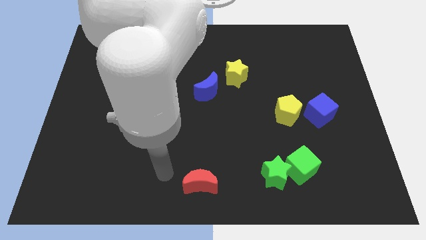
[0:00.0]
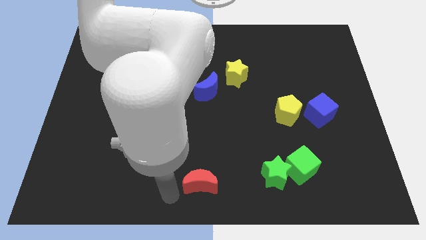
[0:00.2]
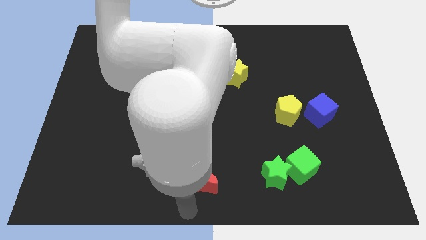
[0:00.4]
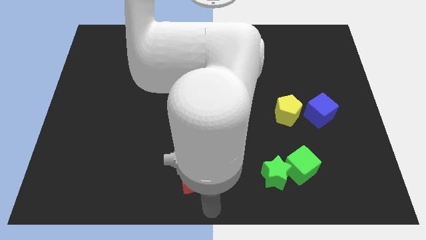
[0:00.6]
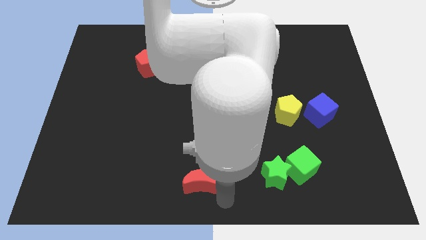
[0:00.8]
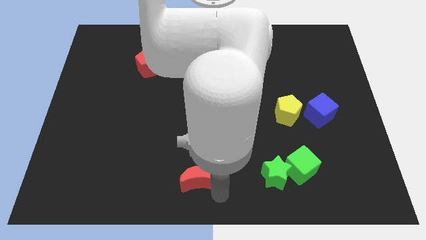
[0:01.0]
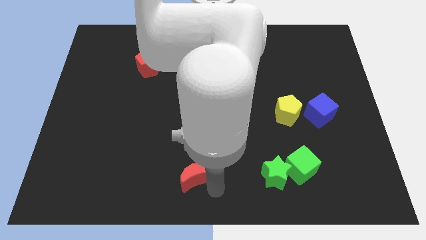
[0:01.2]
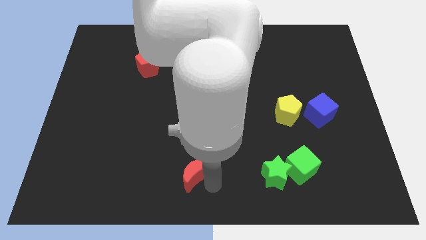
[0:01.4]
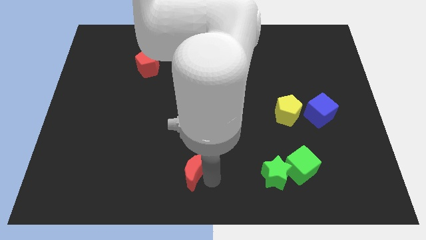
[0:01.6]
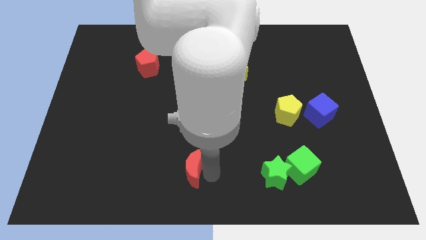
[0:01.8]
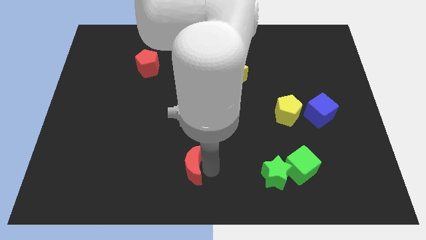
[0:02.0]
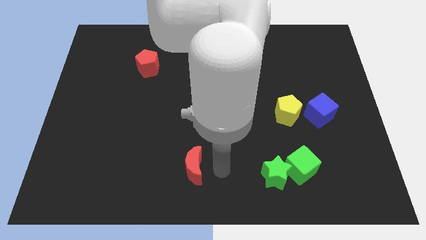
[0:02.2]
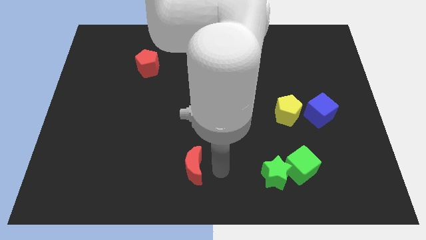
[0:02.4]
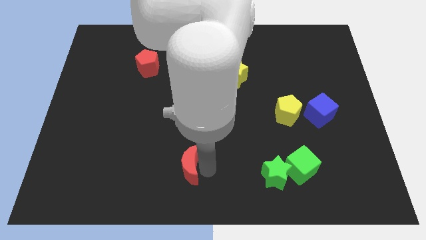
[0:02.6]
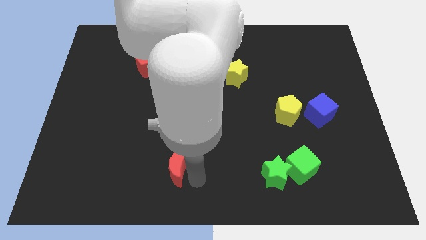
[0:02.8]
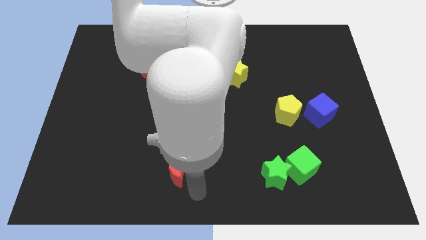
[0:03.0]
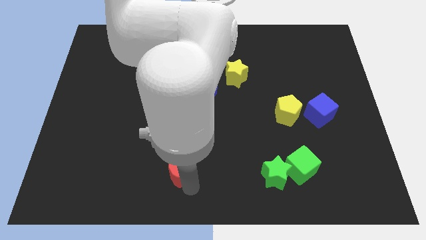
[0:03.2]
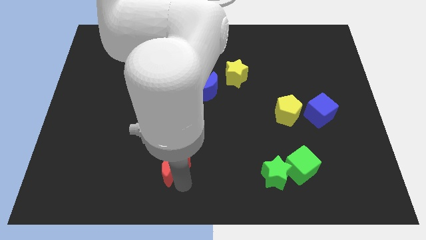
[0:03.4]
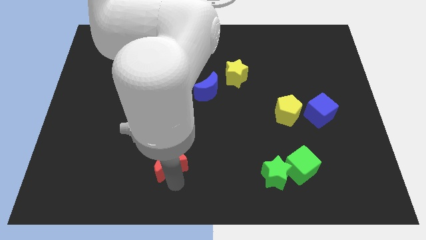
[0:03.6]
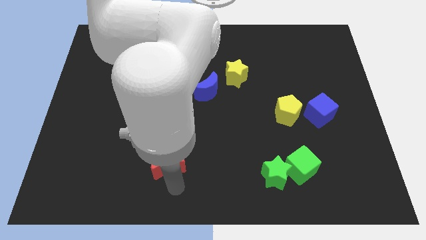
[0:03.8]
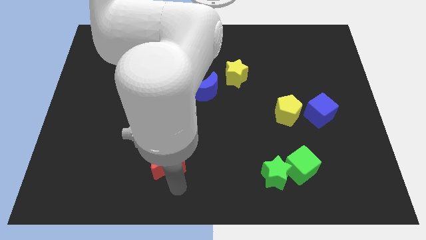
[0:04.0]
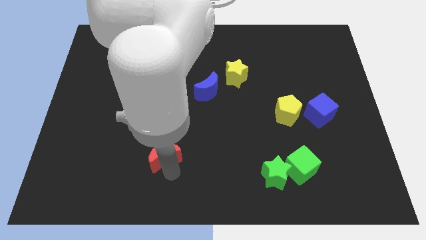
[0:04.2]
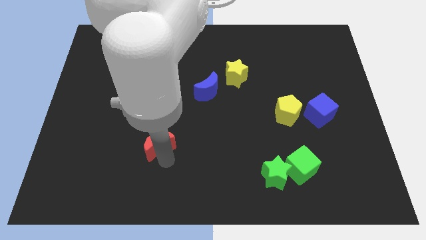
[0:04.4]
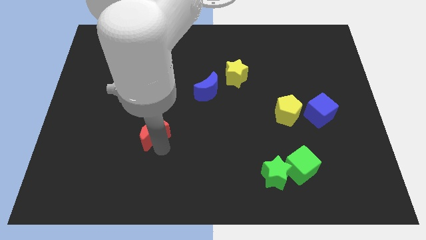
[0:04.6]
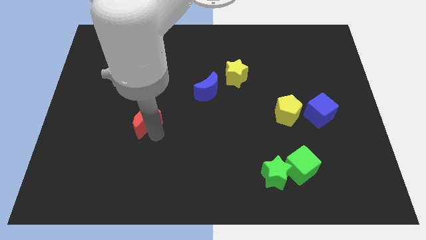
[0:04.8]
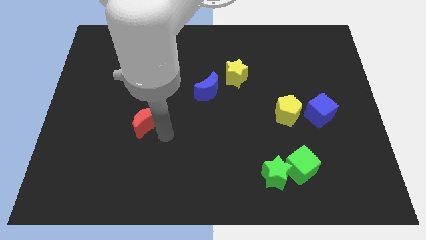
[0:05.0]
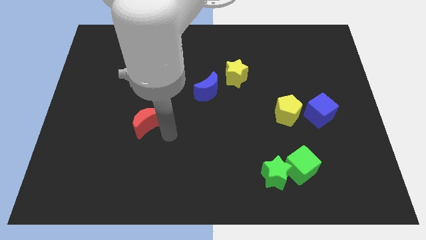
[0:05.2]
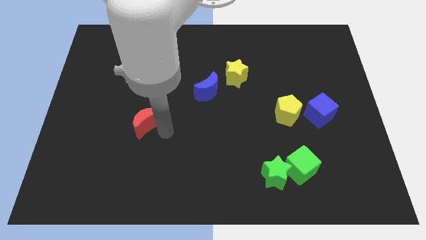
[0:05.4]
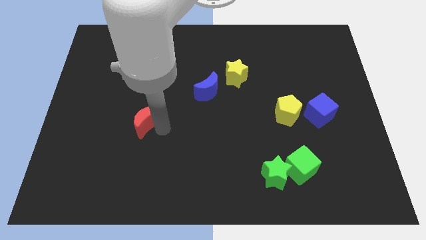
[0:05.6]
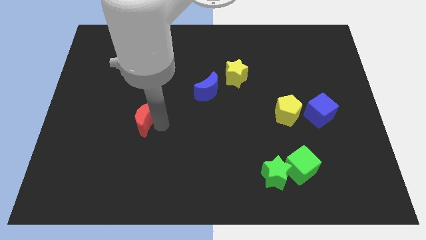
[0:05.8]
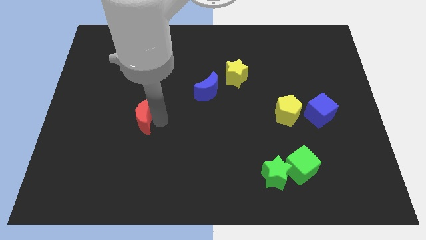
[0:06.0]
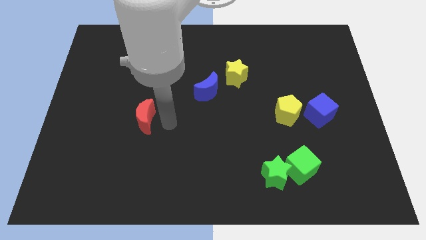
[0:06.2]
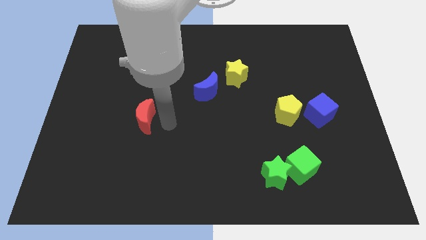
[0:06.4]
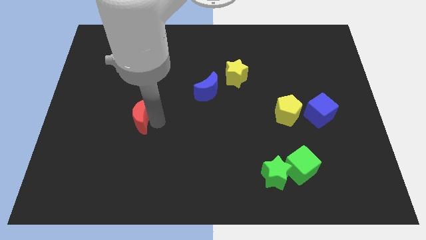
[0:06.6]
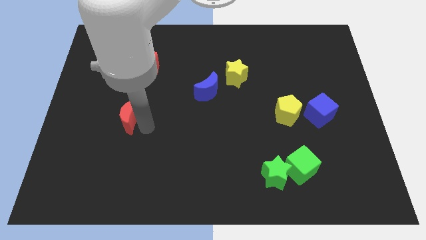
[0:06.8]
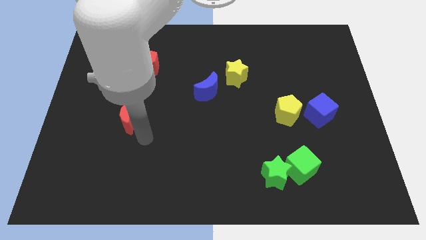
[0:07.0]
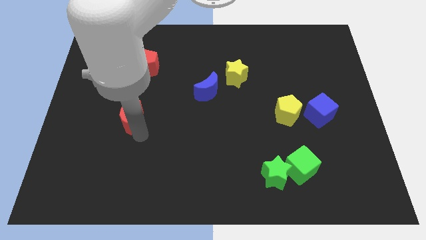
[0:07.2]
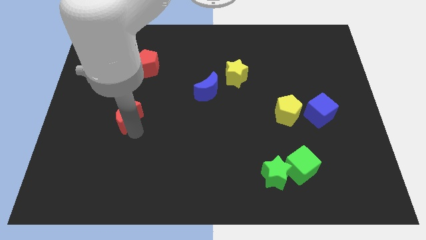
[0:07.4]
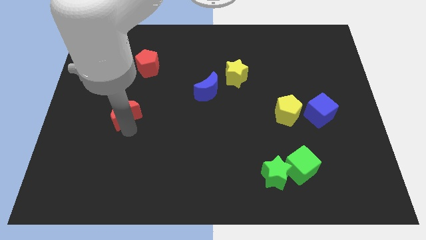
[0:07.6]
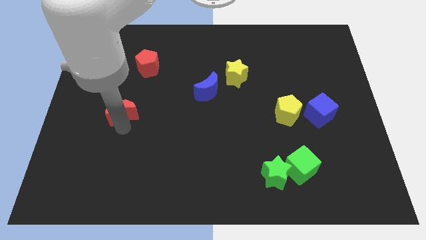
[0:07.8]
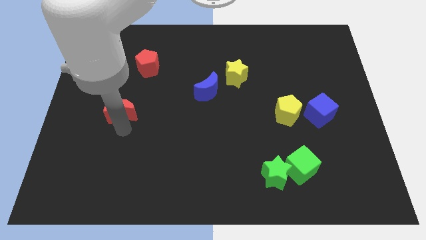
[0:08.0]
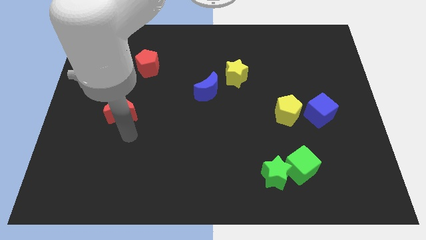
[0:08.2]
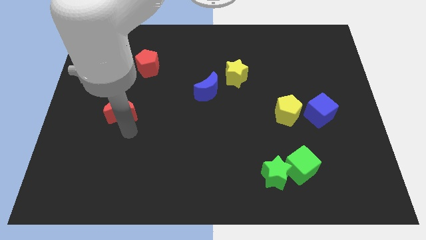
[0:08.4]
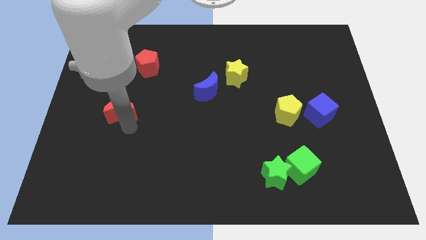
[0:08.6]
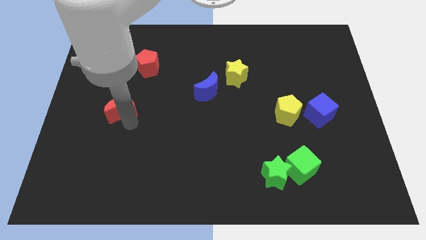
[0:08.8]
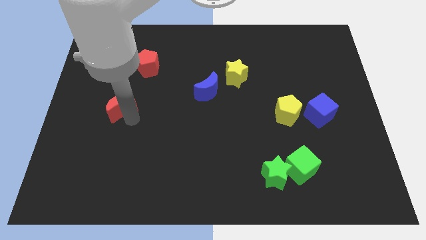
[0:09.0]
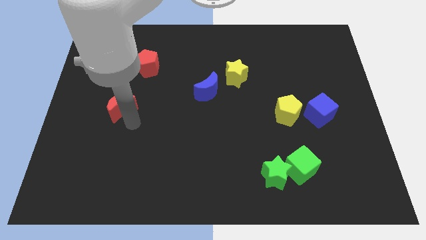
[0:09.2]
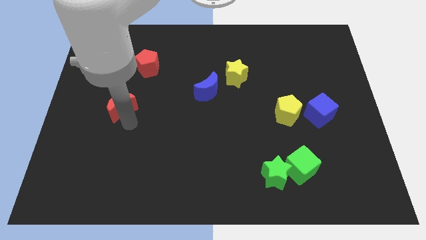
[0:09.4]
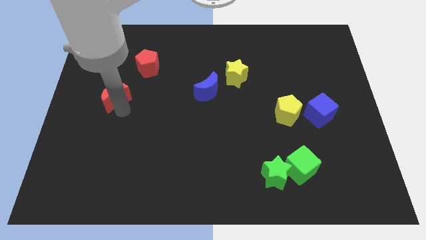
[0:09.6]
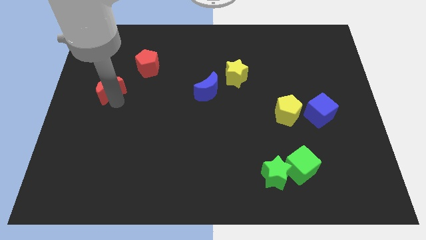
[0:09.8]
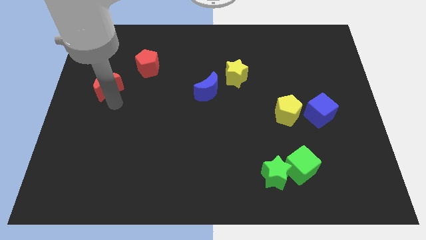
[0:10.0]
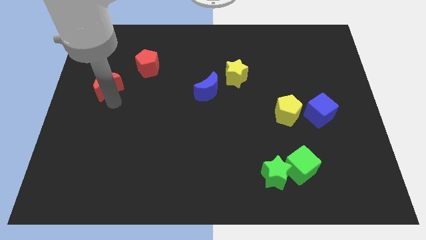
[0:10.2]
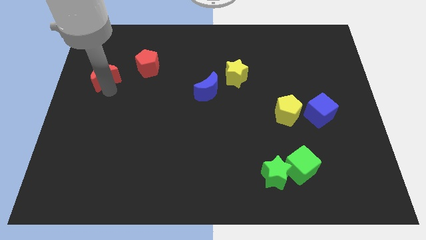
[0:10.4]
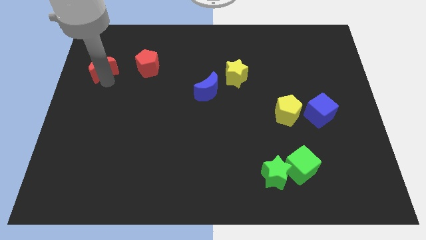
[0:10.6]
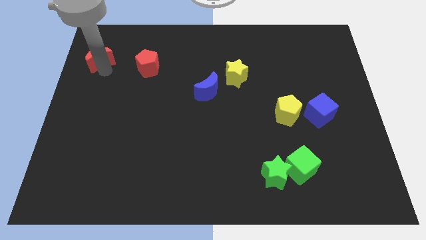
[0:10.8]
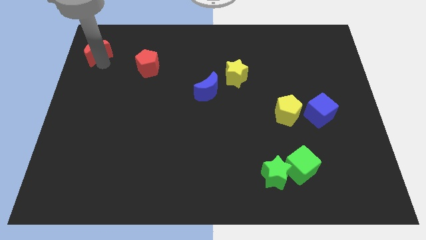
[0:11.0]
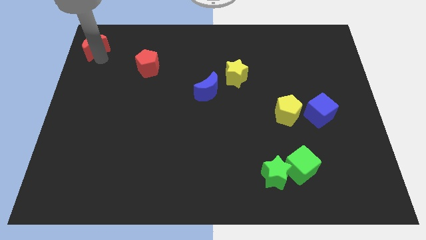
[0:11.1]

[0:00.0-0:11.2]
move the red moon to the top left of the board

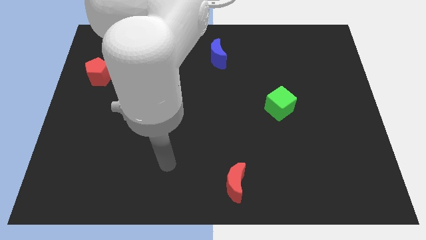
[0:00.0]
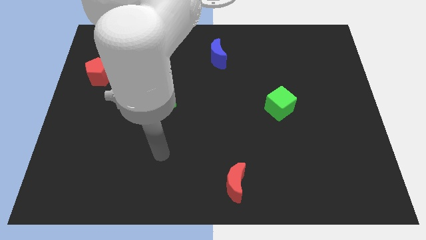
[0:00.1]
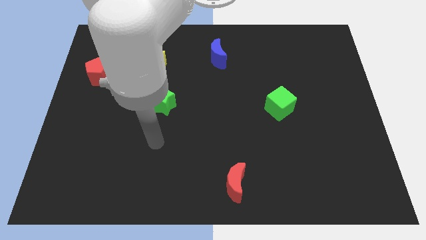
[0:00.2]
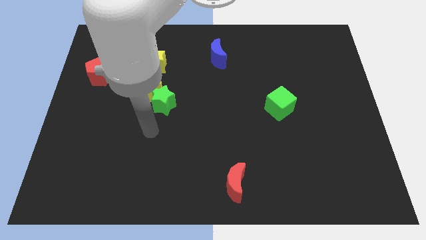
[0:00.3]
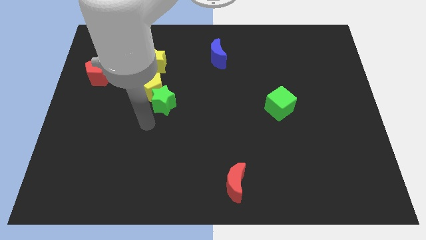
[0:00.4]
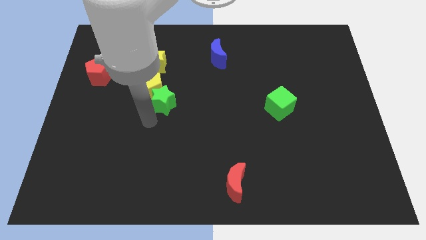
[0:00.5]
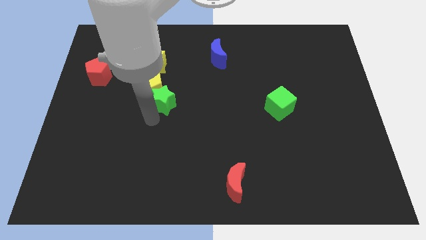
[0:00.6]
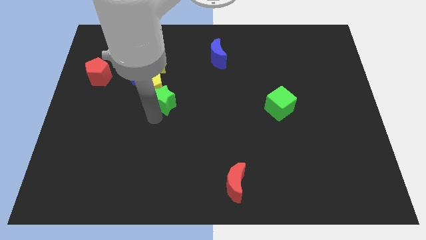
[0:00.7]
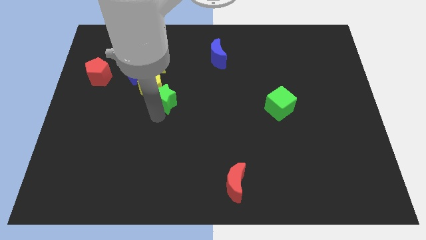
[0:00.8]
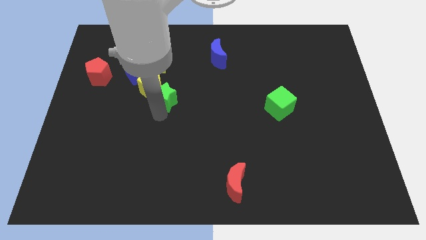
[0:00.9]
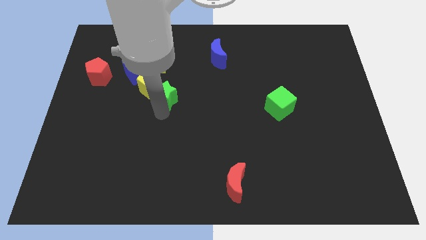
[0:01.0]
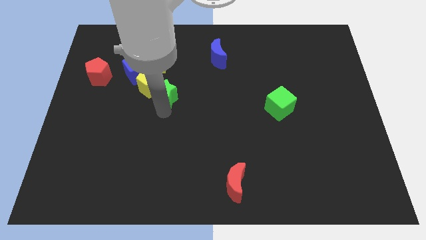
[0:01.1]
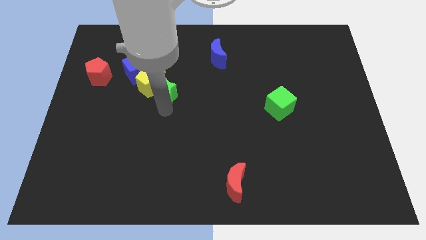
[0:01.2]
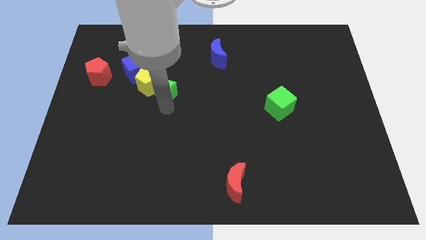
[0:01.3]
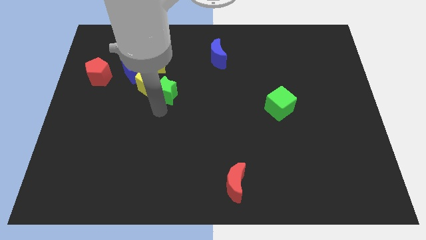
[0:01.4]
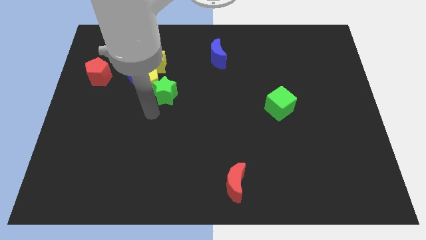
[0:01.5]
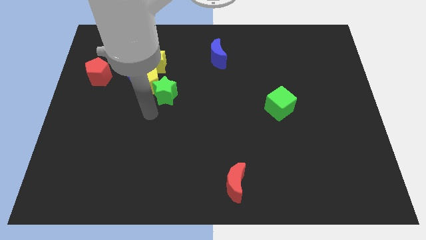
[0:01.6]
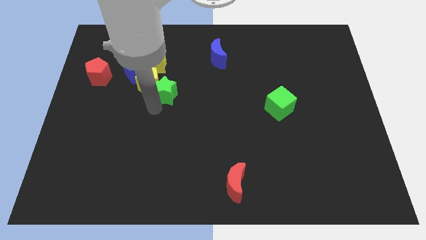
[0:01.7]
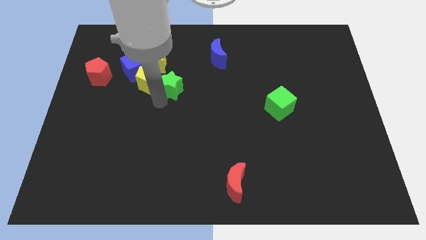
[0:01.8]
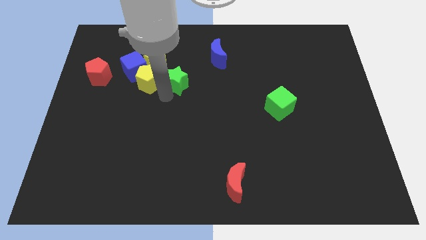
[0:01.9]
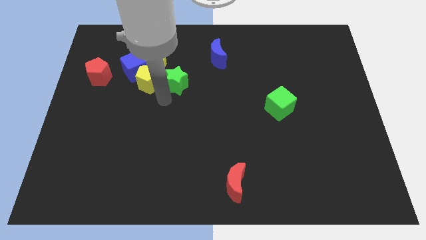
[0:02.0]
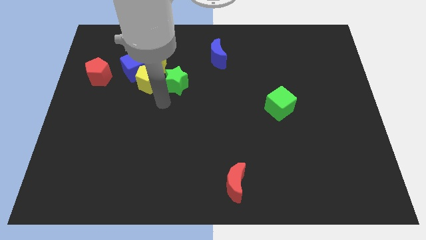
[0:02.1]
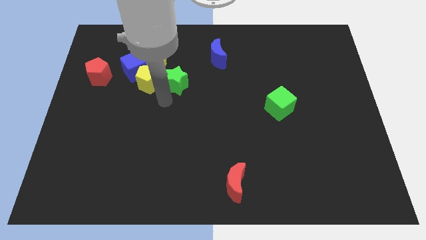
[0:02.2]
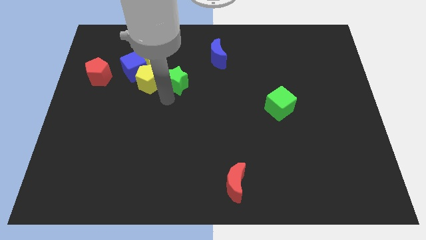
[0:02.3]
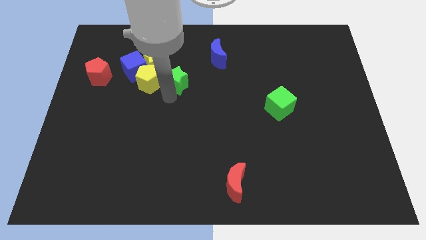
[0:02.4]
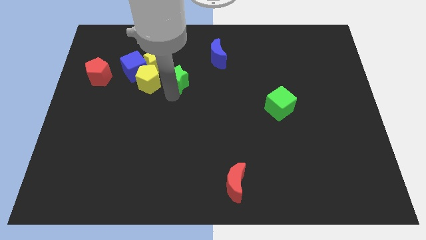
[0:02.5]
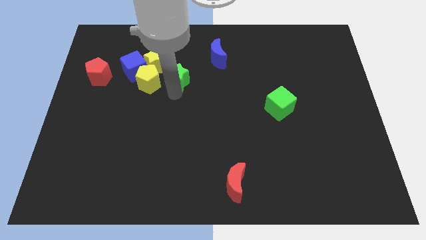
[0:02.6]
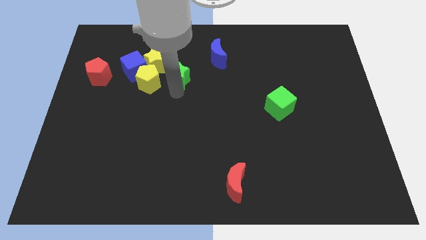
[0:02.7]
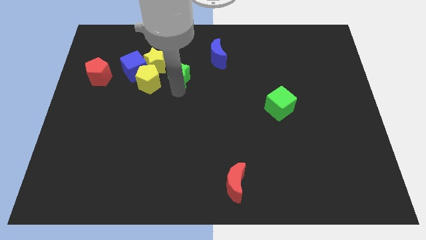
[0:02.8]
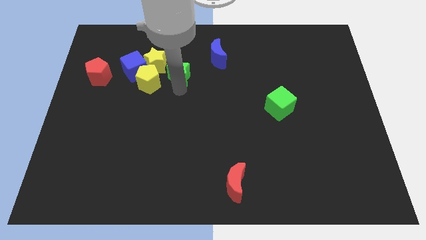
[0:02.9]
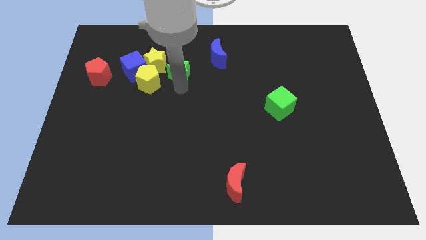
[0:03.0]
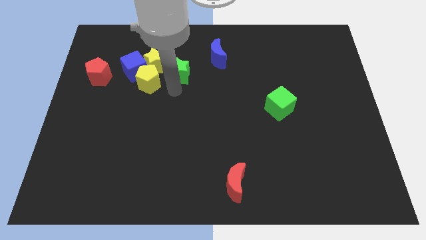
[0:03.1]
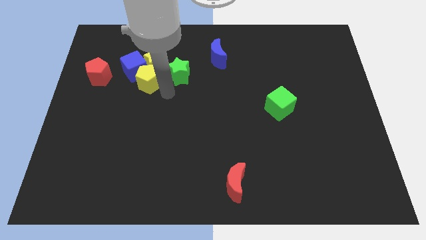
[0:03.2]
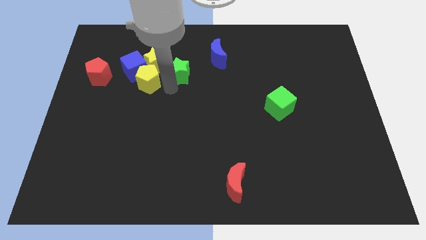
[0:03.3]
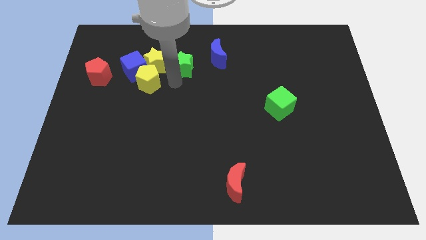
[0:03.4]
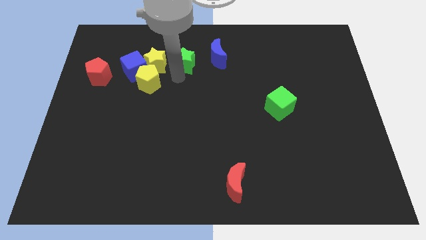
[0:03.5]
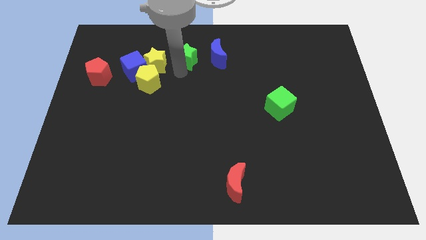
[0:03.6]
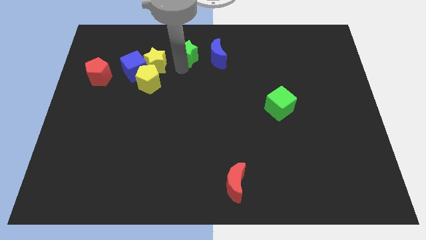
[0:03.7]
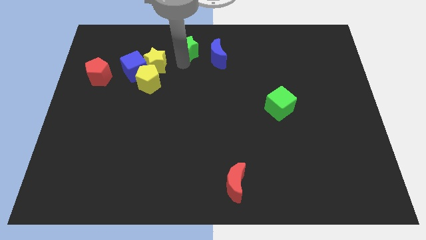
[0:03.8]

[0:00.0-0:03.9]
put the green star to the top
